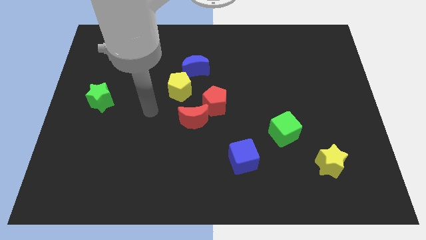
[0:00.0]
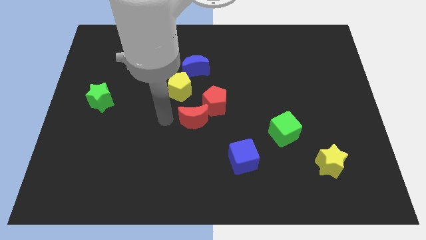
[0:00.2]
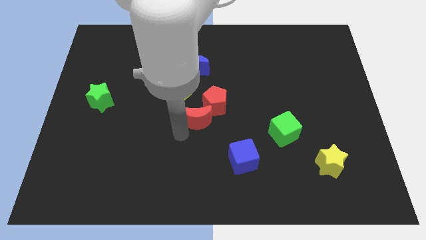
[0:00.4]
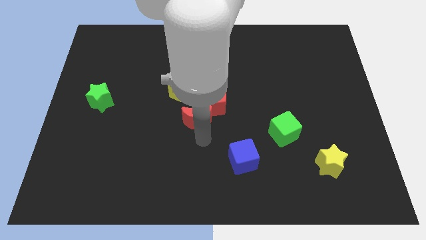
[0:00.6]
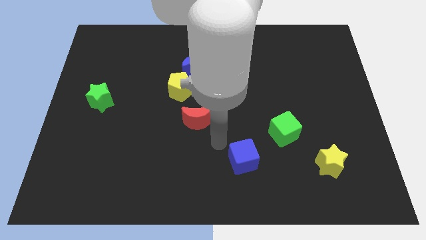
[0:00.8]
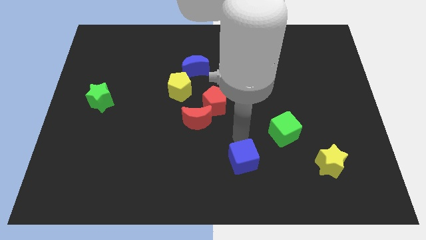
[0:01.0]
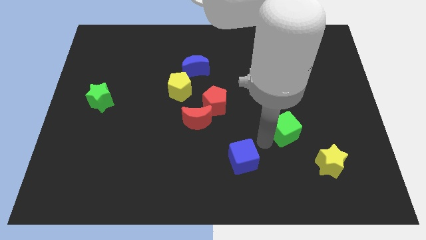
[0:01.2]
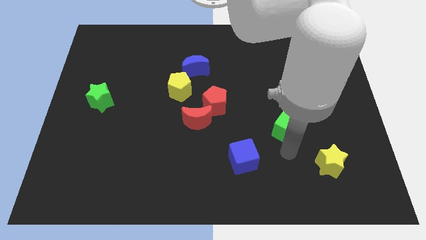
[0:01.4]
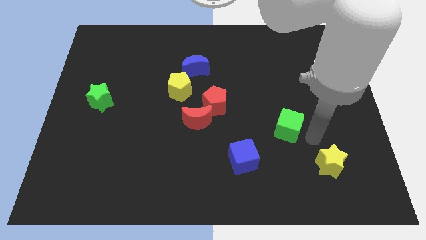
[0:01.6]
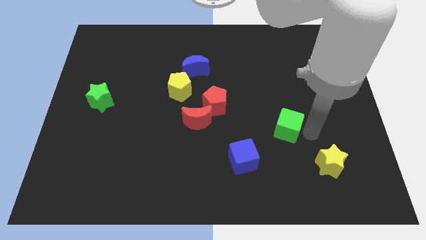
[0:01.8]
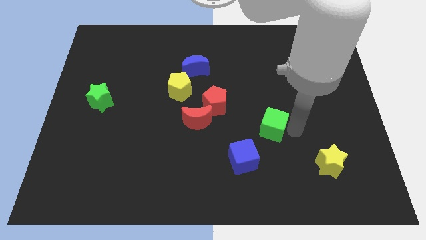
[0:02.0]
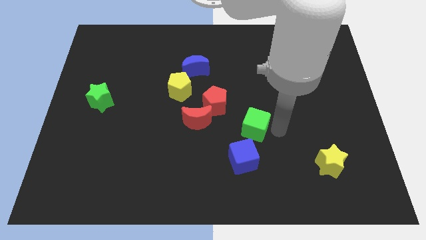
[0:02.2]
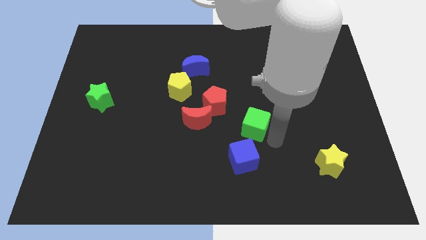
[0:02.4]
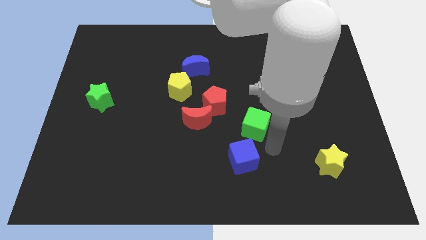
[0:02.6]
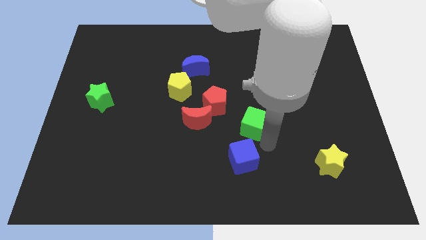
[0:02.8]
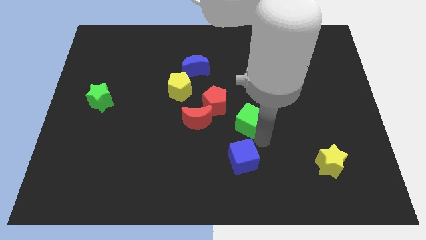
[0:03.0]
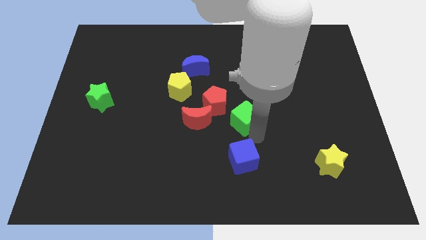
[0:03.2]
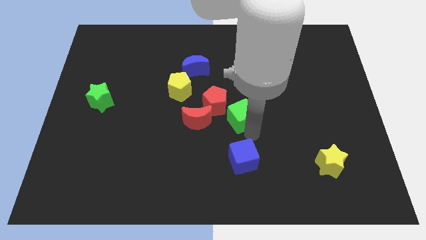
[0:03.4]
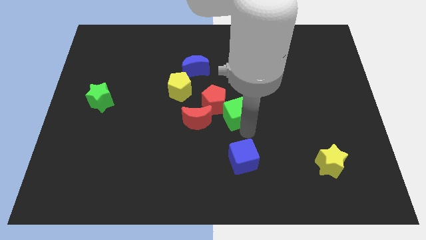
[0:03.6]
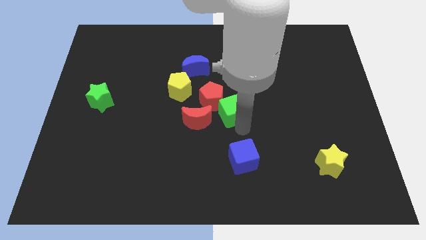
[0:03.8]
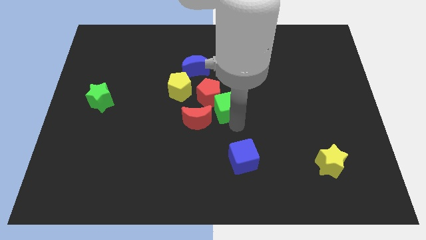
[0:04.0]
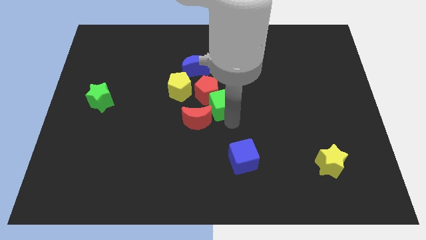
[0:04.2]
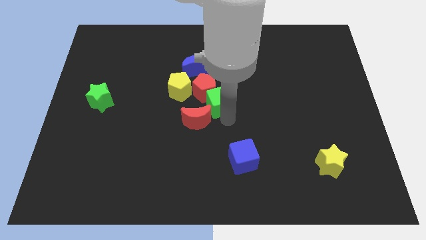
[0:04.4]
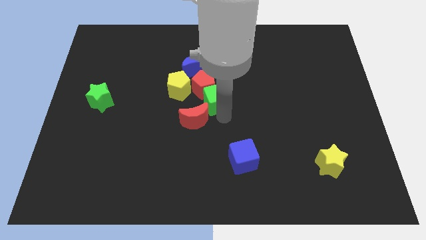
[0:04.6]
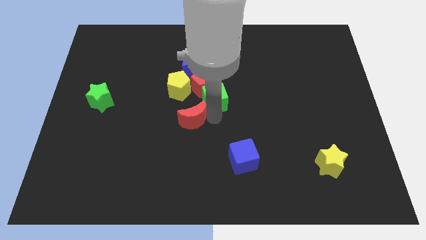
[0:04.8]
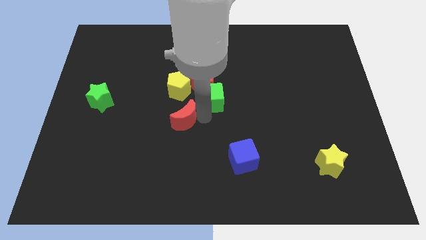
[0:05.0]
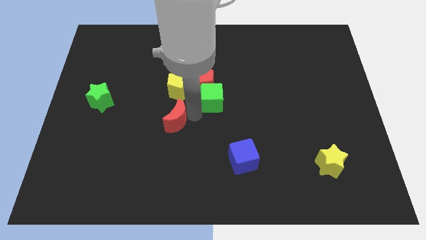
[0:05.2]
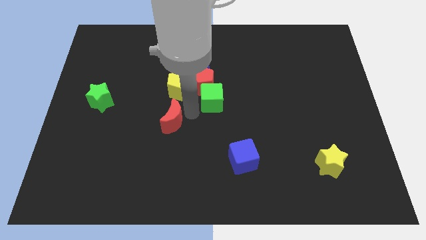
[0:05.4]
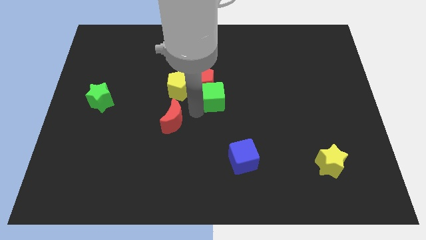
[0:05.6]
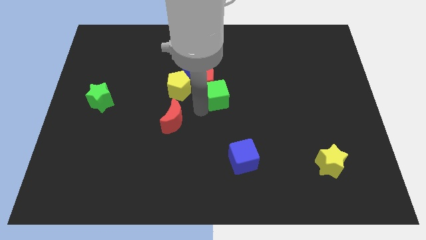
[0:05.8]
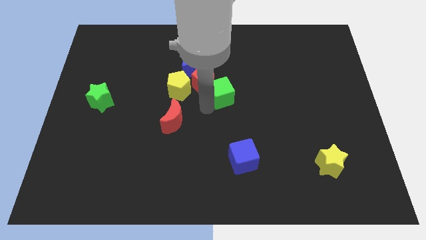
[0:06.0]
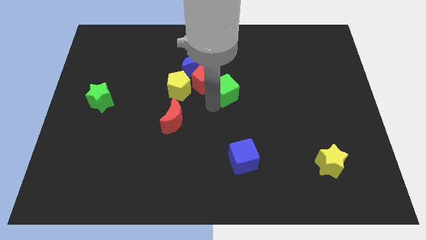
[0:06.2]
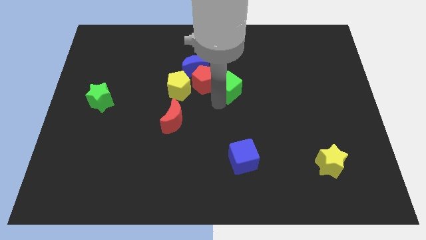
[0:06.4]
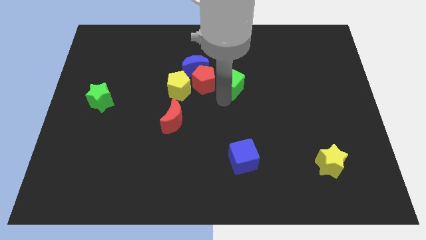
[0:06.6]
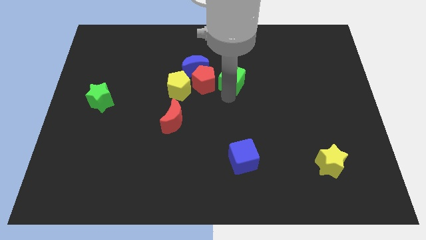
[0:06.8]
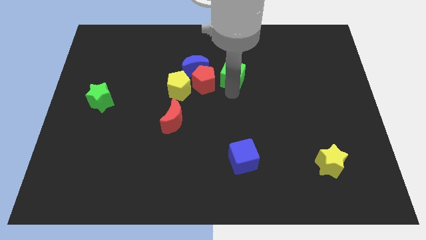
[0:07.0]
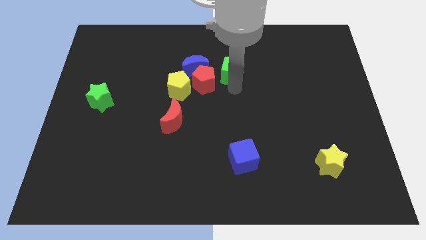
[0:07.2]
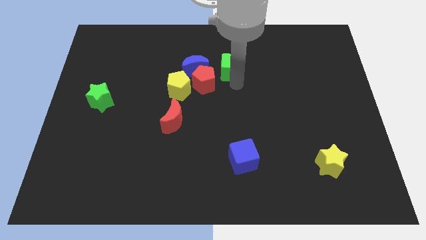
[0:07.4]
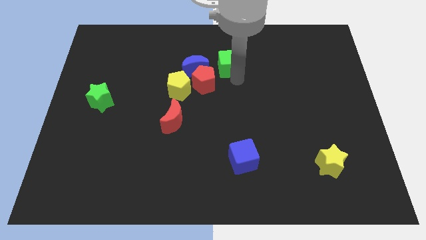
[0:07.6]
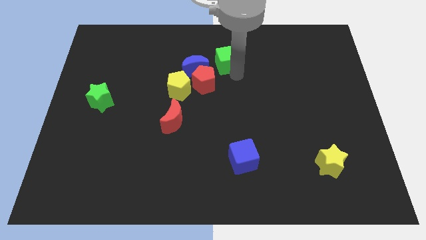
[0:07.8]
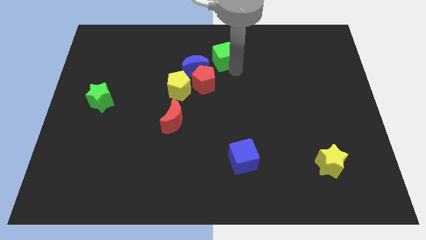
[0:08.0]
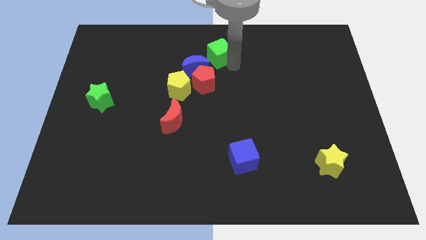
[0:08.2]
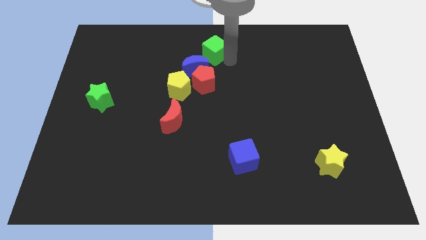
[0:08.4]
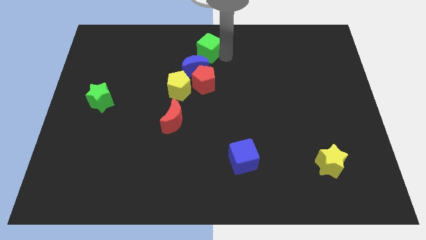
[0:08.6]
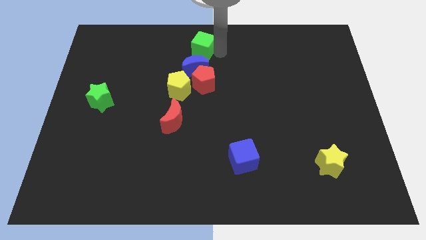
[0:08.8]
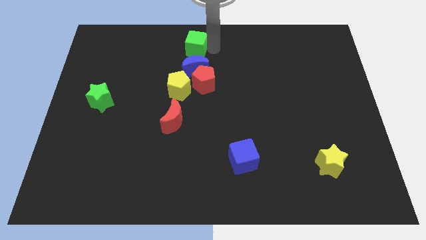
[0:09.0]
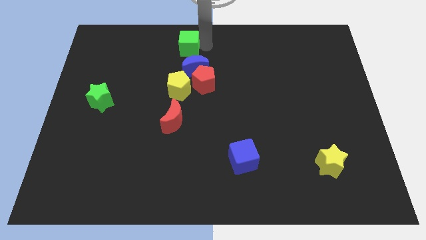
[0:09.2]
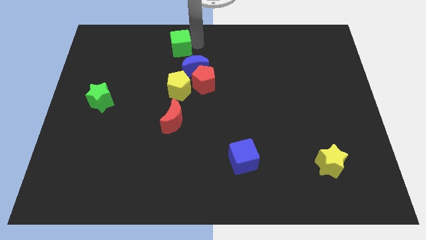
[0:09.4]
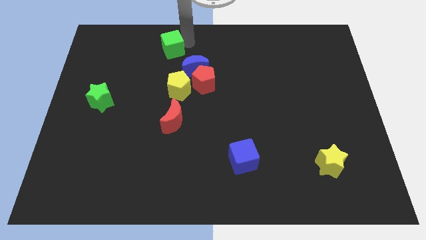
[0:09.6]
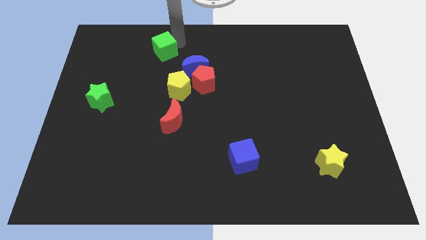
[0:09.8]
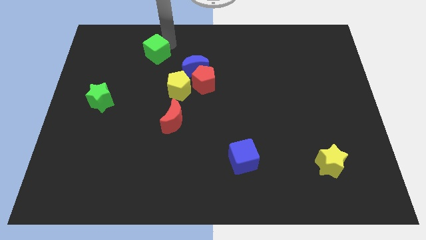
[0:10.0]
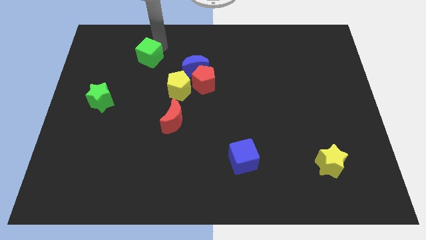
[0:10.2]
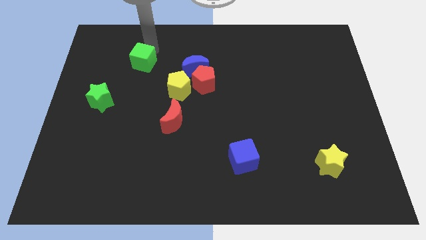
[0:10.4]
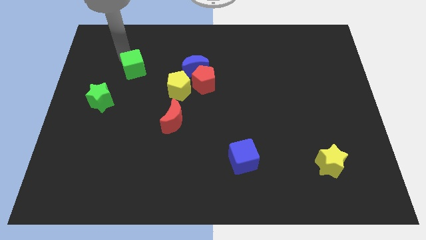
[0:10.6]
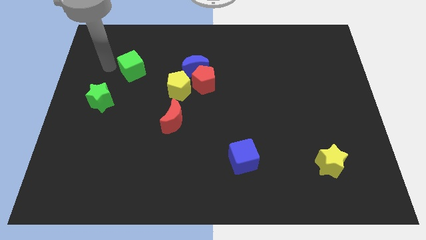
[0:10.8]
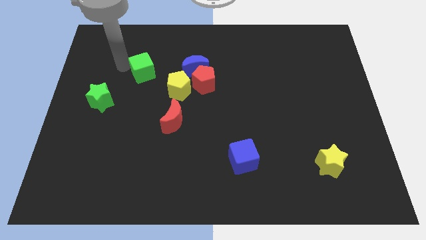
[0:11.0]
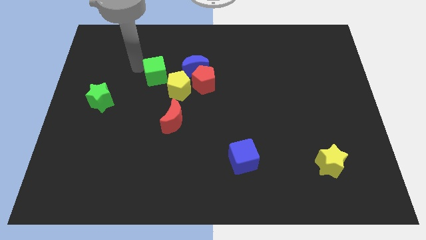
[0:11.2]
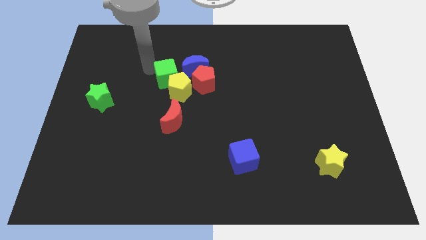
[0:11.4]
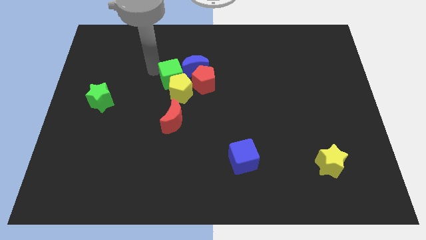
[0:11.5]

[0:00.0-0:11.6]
slide the green cube to the blue moon

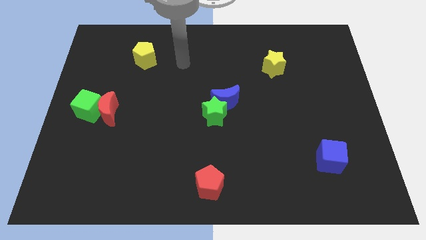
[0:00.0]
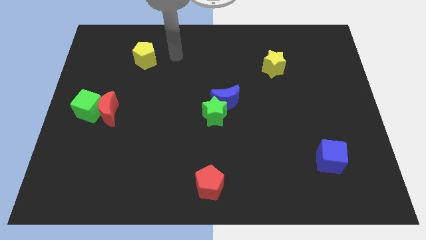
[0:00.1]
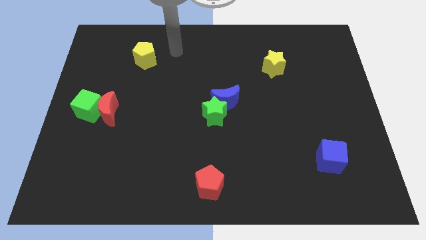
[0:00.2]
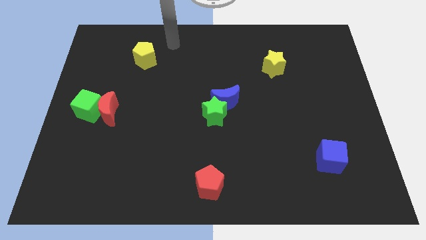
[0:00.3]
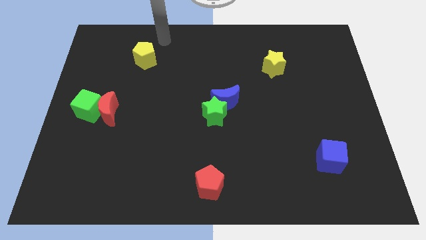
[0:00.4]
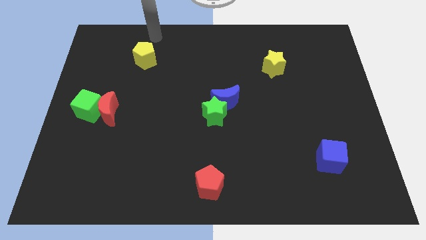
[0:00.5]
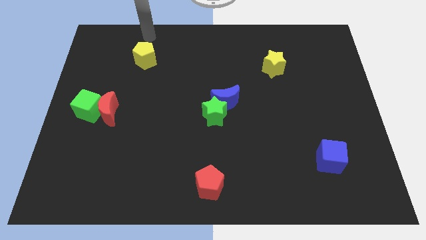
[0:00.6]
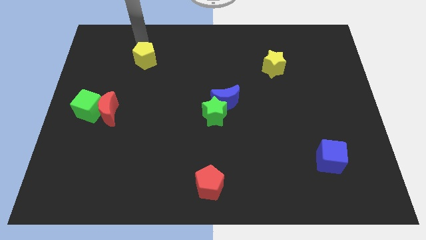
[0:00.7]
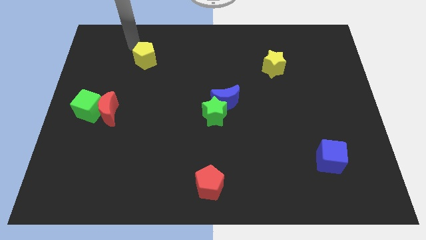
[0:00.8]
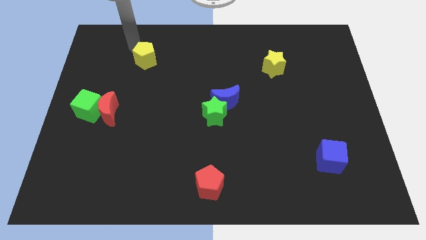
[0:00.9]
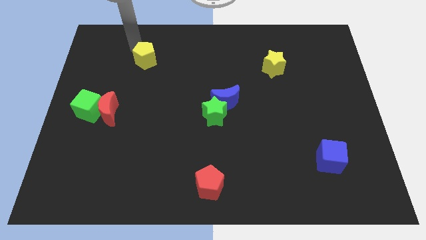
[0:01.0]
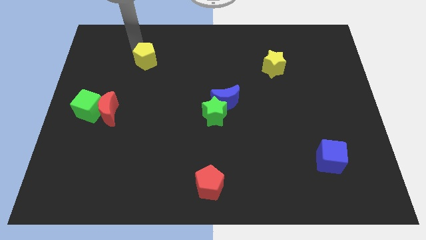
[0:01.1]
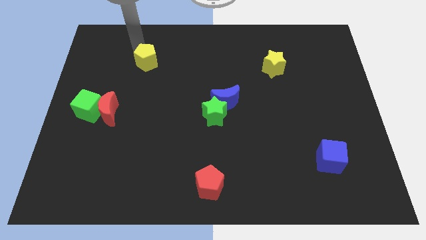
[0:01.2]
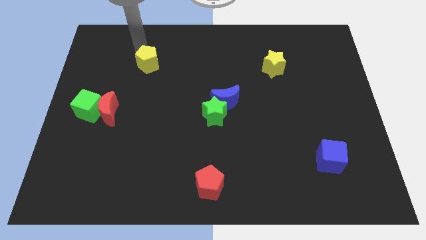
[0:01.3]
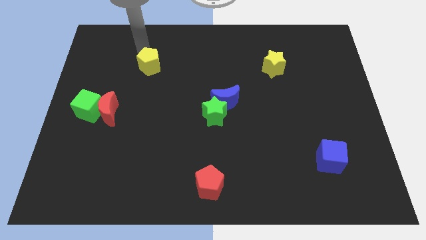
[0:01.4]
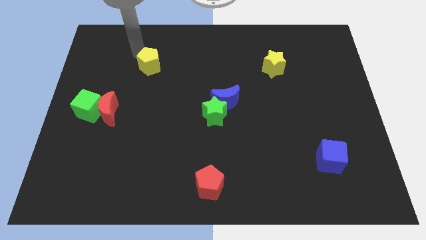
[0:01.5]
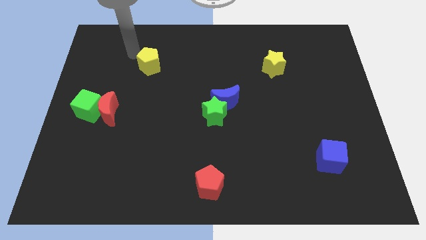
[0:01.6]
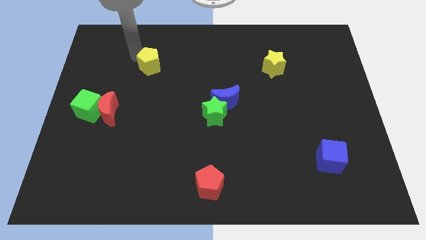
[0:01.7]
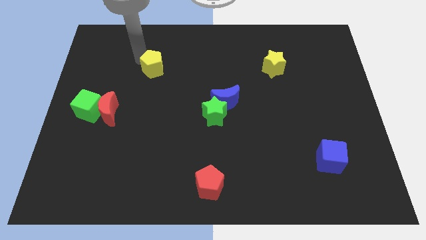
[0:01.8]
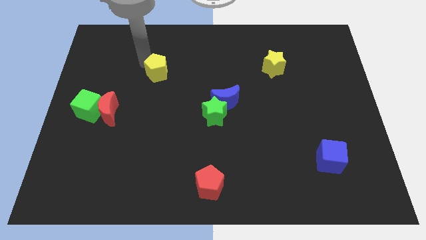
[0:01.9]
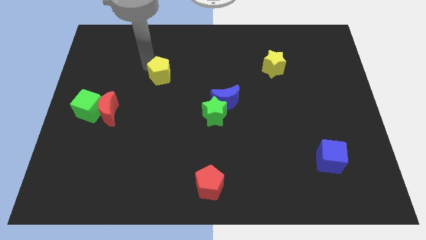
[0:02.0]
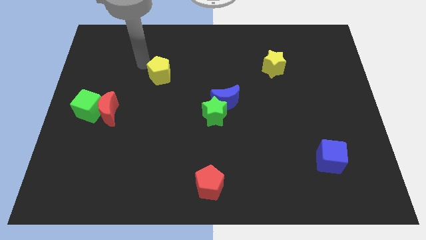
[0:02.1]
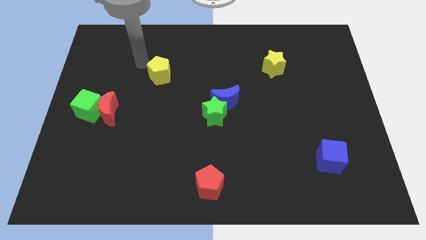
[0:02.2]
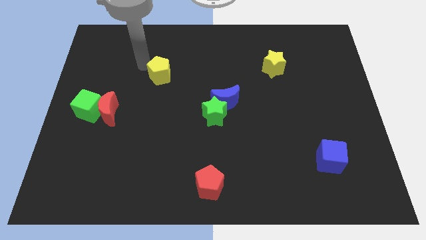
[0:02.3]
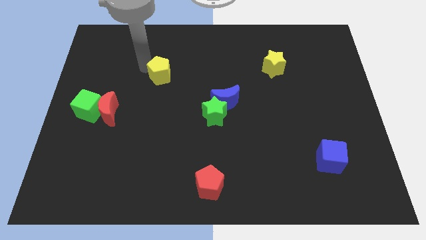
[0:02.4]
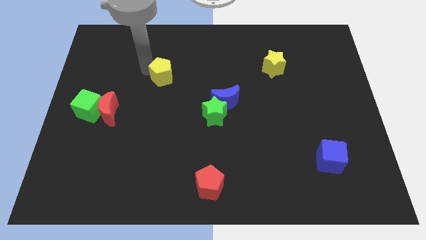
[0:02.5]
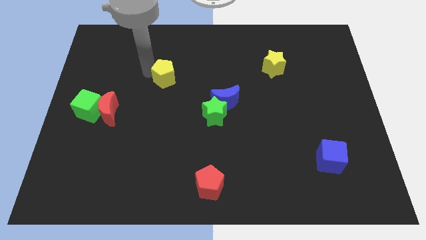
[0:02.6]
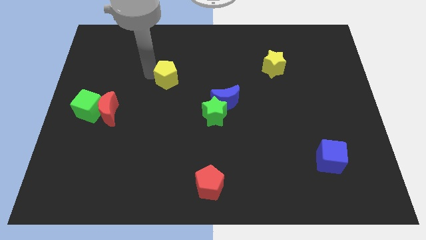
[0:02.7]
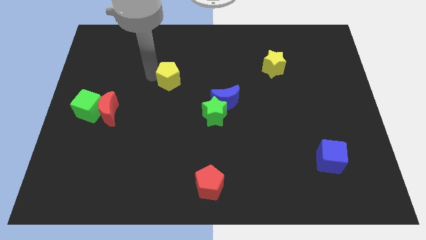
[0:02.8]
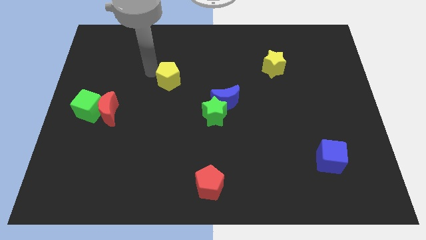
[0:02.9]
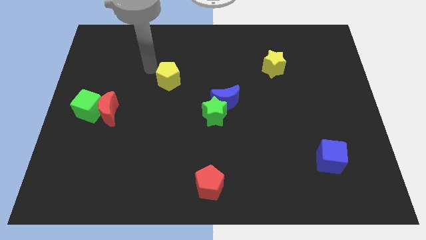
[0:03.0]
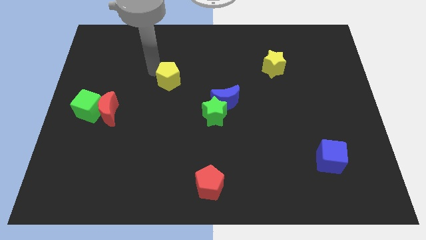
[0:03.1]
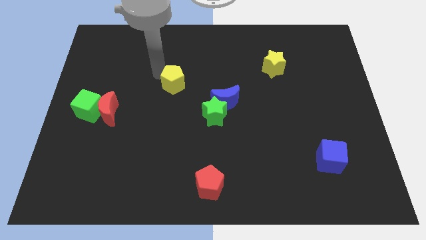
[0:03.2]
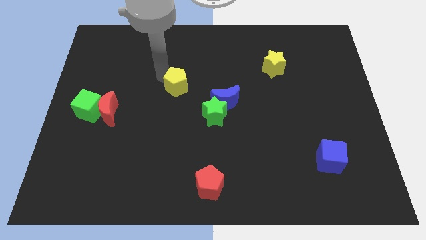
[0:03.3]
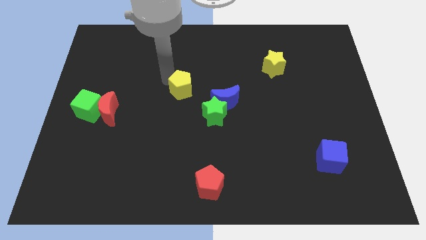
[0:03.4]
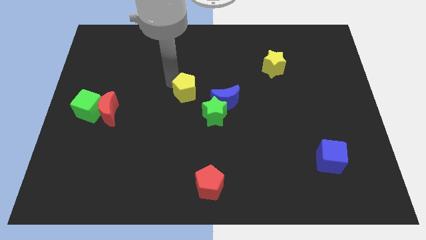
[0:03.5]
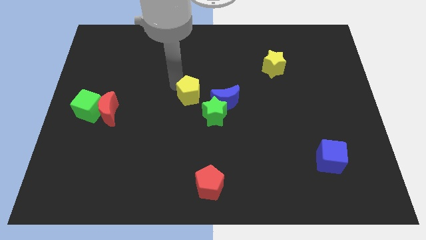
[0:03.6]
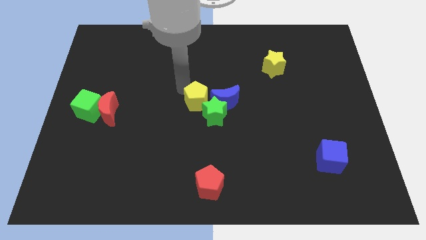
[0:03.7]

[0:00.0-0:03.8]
push the yellow pentagon close to the green star
